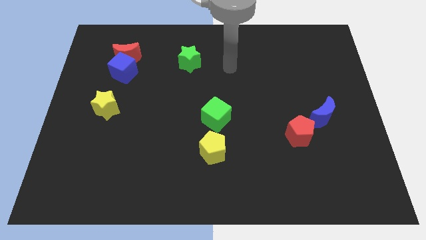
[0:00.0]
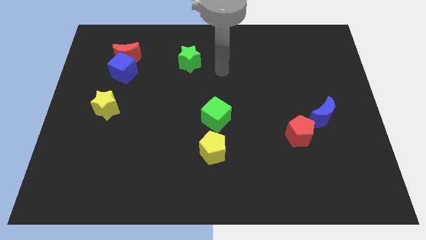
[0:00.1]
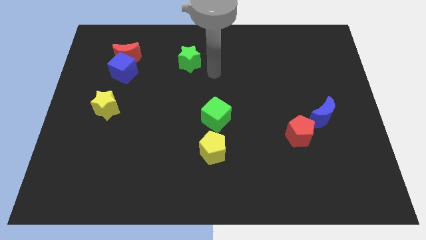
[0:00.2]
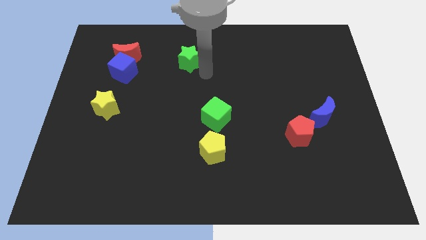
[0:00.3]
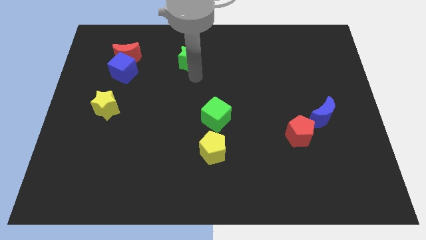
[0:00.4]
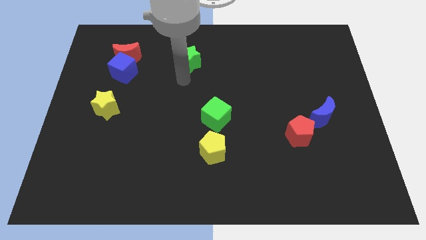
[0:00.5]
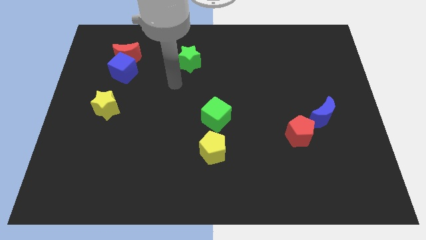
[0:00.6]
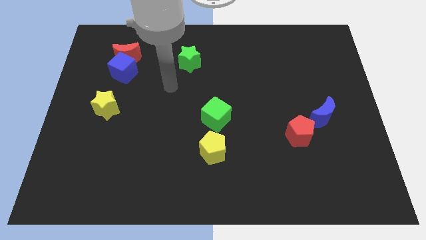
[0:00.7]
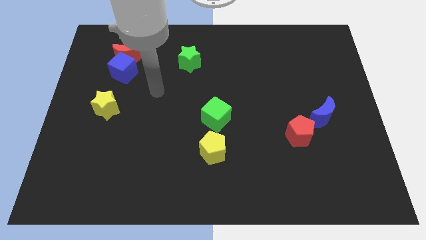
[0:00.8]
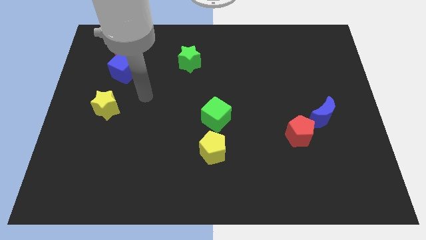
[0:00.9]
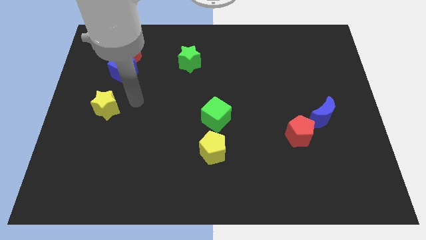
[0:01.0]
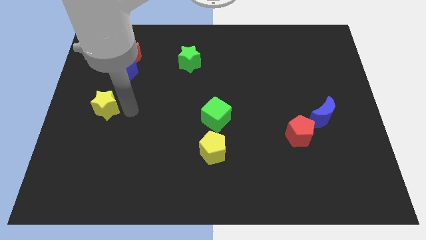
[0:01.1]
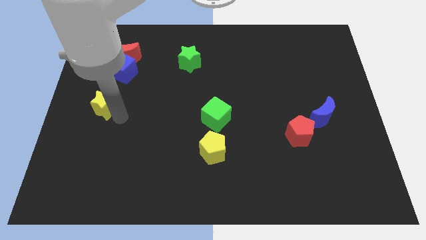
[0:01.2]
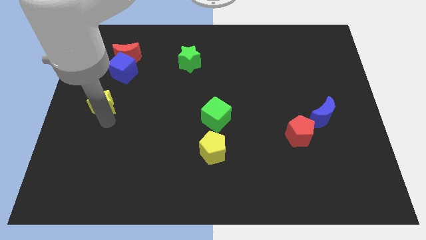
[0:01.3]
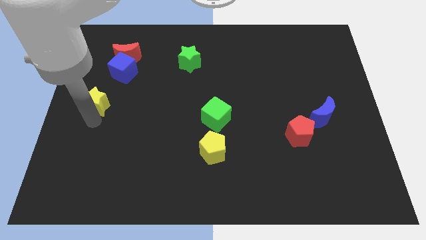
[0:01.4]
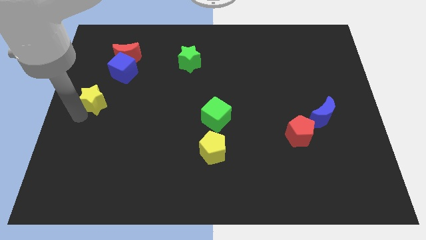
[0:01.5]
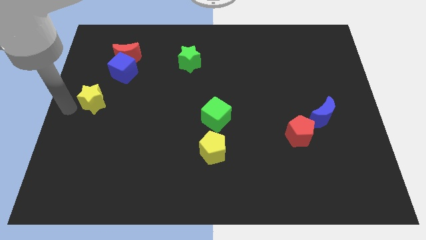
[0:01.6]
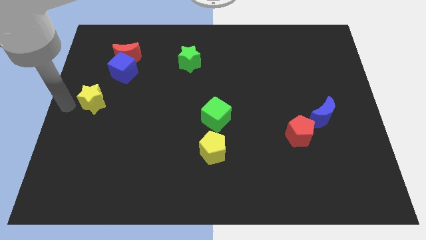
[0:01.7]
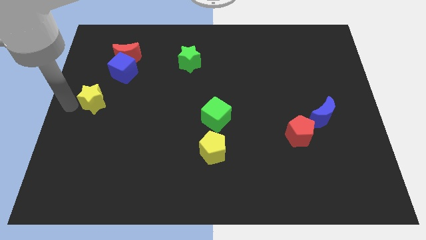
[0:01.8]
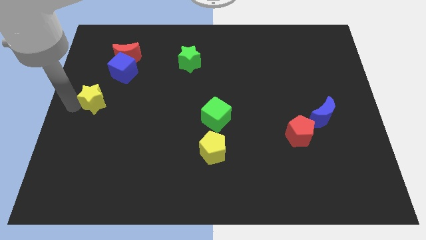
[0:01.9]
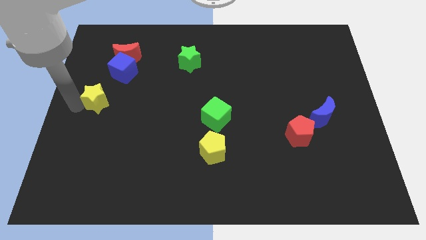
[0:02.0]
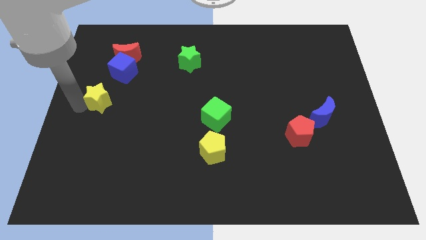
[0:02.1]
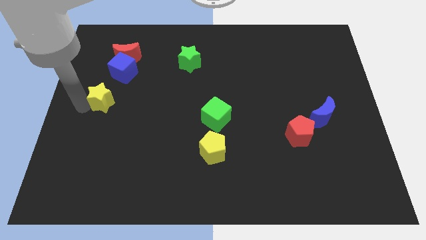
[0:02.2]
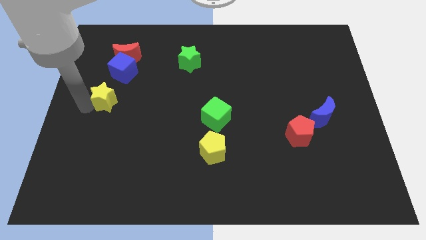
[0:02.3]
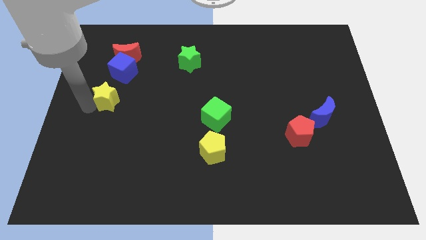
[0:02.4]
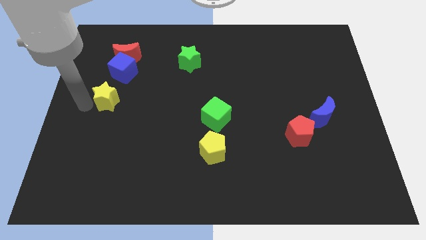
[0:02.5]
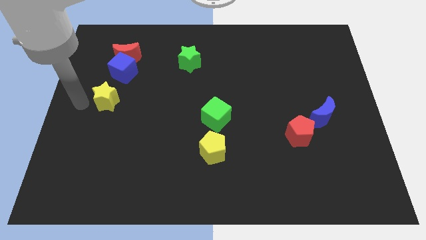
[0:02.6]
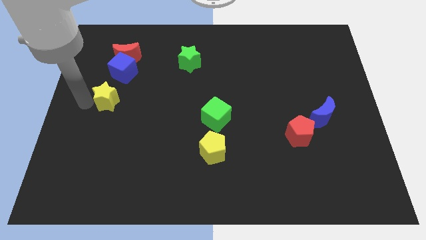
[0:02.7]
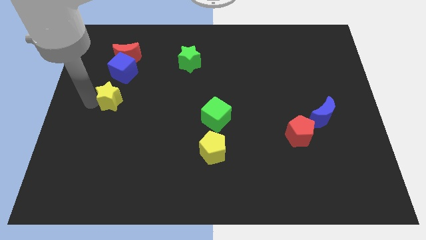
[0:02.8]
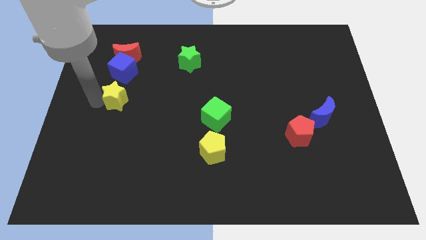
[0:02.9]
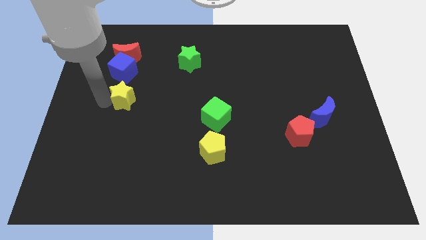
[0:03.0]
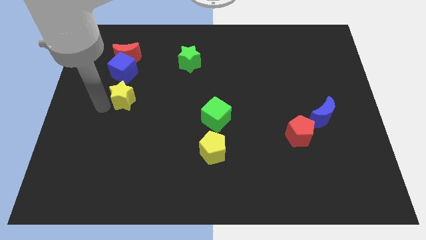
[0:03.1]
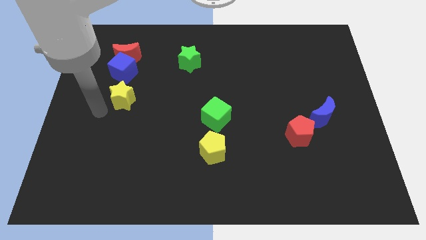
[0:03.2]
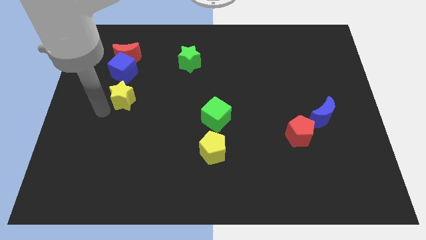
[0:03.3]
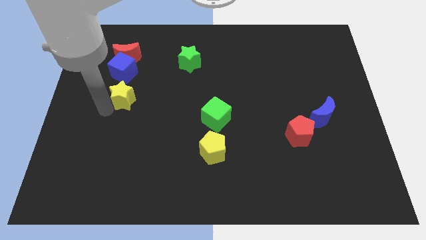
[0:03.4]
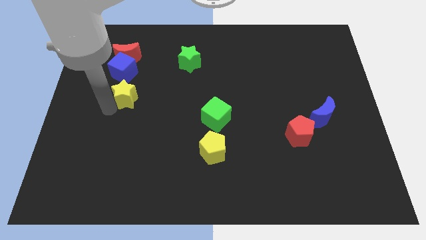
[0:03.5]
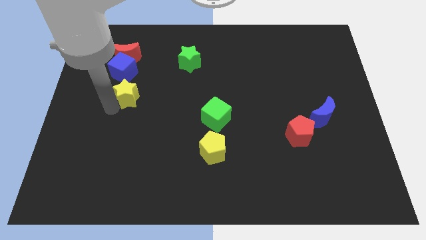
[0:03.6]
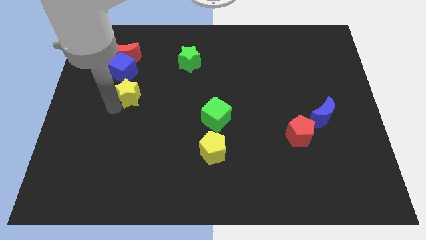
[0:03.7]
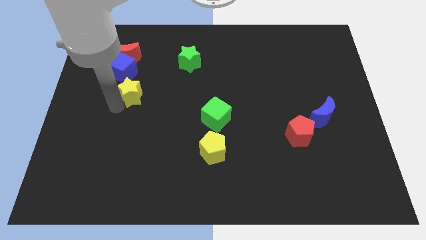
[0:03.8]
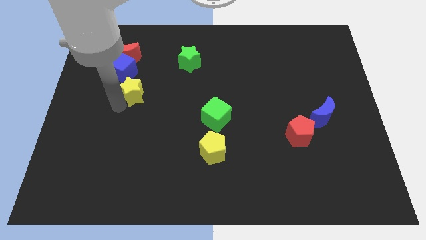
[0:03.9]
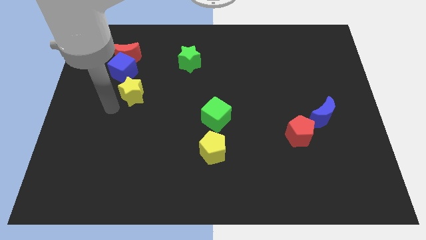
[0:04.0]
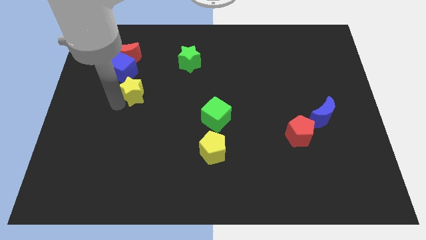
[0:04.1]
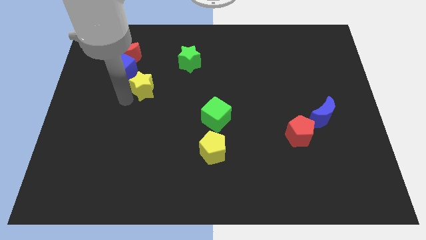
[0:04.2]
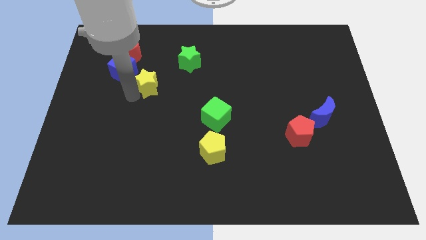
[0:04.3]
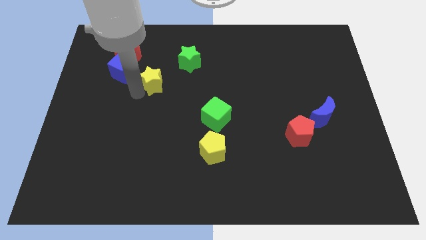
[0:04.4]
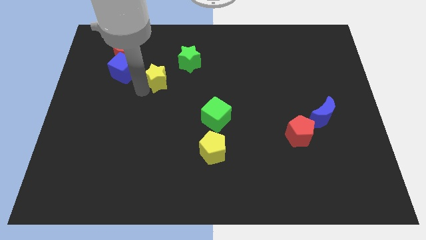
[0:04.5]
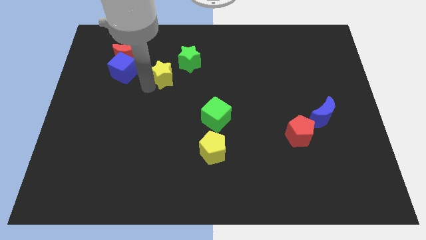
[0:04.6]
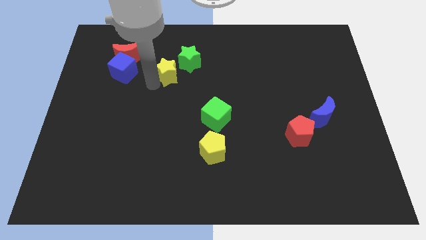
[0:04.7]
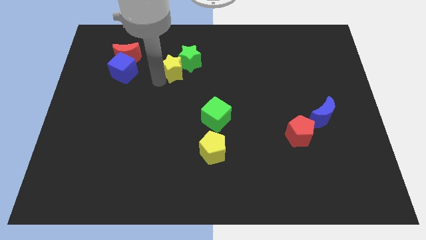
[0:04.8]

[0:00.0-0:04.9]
move the yellow star towards the green star

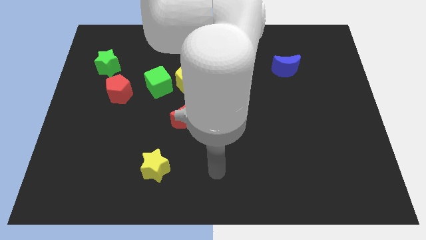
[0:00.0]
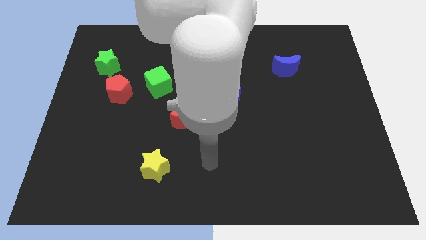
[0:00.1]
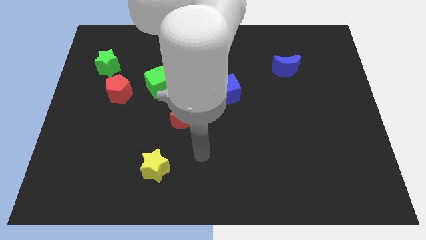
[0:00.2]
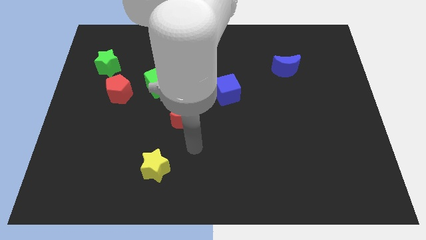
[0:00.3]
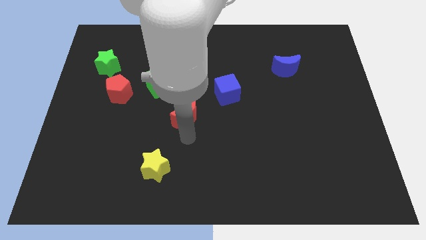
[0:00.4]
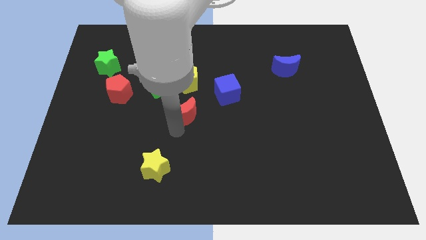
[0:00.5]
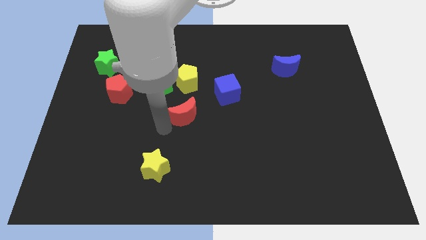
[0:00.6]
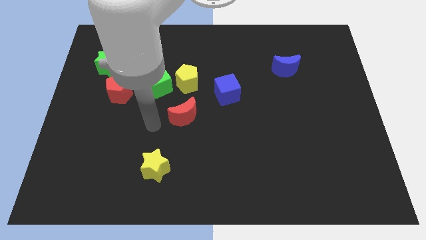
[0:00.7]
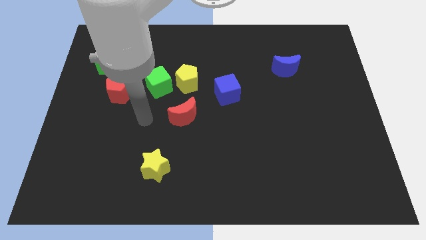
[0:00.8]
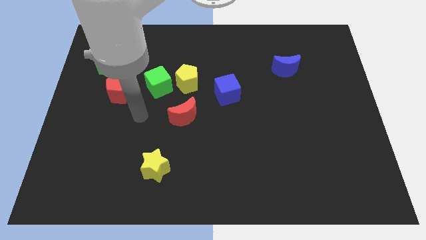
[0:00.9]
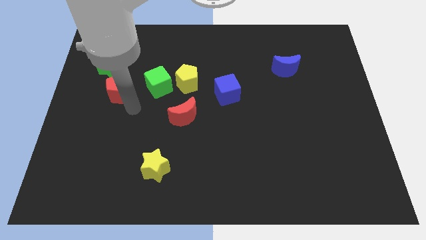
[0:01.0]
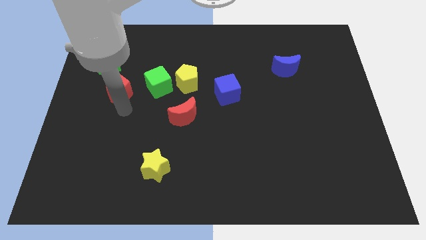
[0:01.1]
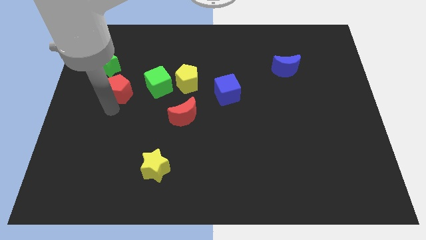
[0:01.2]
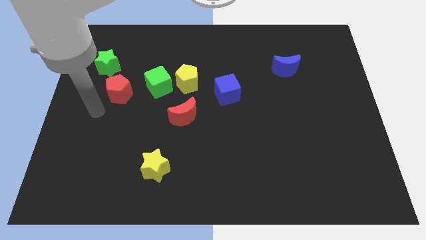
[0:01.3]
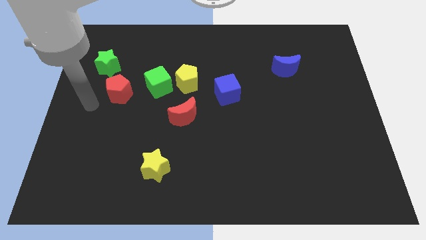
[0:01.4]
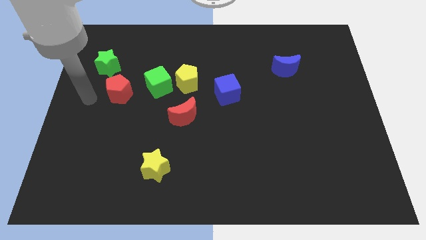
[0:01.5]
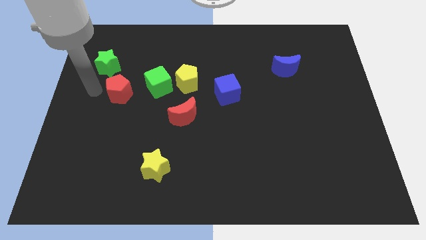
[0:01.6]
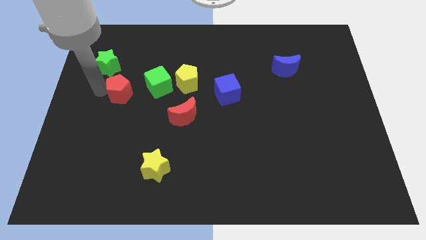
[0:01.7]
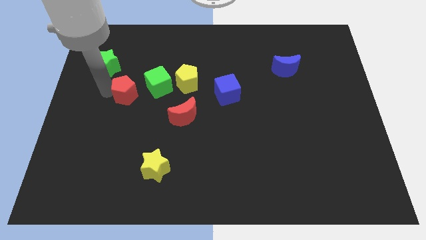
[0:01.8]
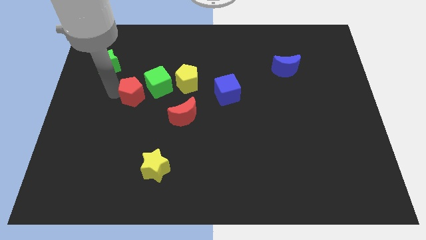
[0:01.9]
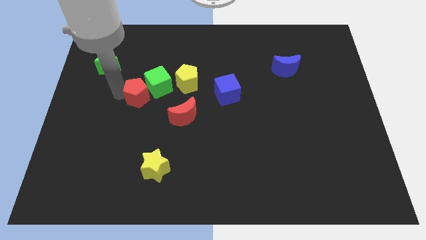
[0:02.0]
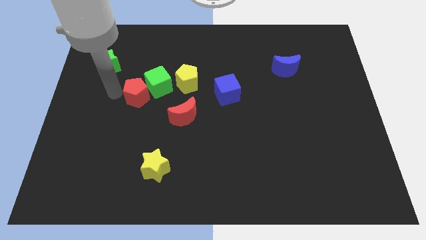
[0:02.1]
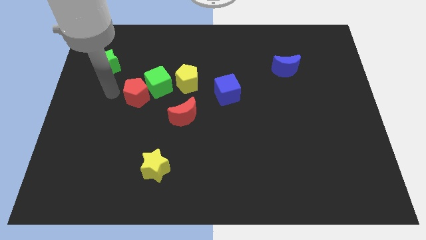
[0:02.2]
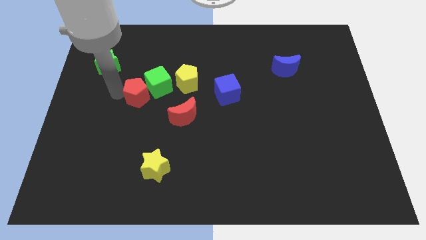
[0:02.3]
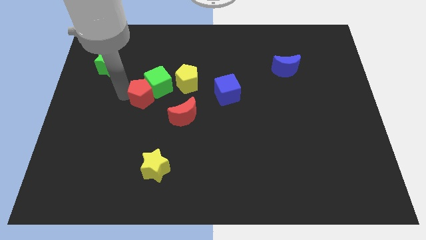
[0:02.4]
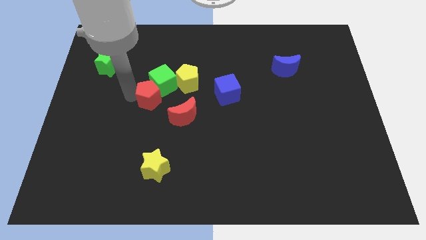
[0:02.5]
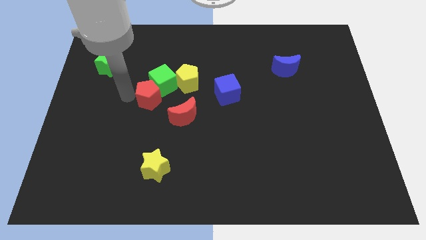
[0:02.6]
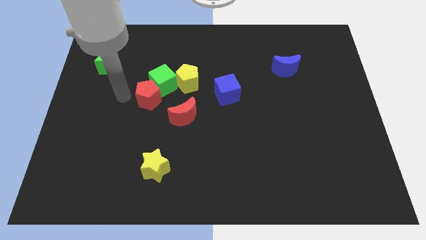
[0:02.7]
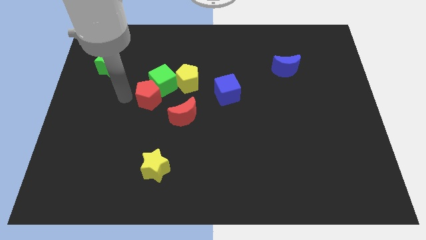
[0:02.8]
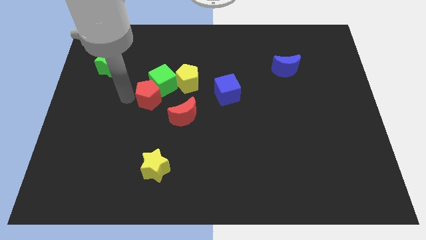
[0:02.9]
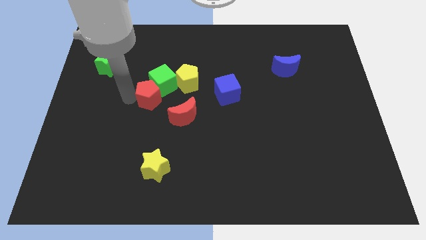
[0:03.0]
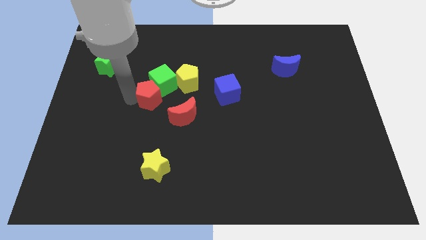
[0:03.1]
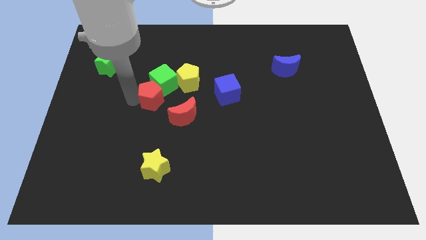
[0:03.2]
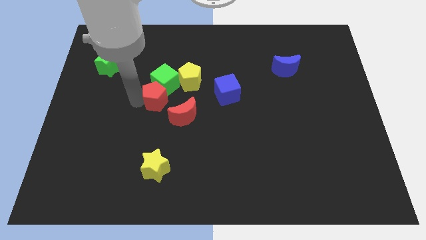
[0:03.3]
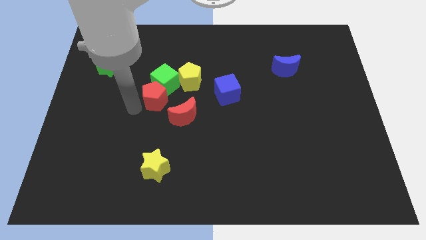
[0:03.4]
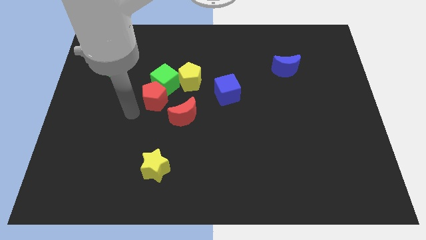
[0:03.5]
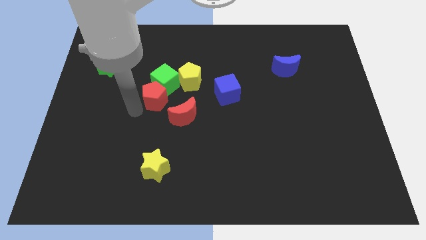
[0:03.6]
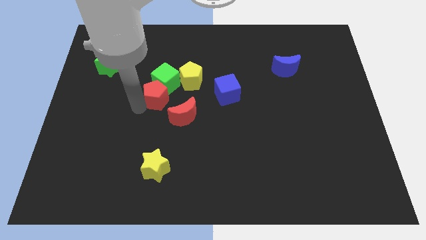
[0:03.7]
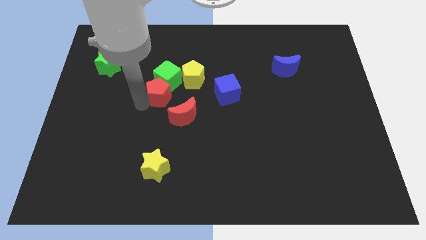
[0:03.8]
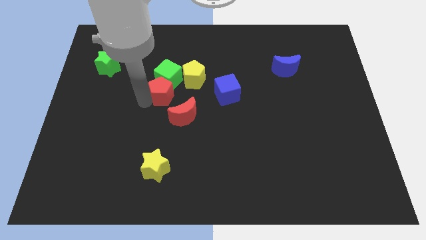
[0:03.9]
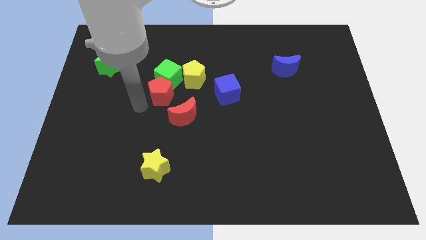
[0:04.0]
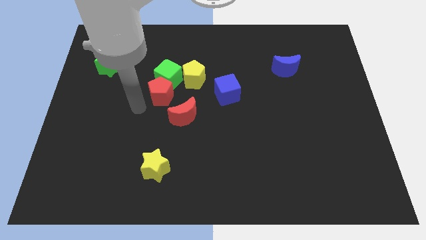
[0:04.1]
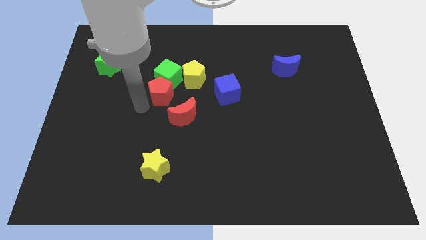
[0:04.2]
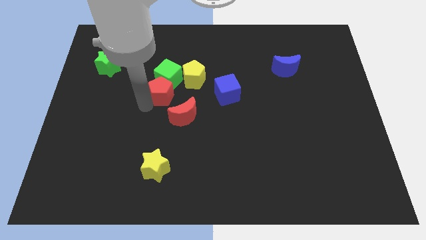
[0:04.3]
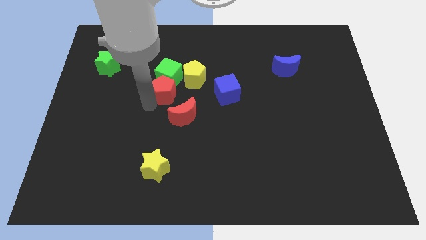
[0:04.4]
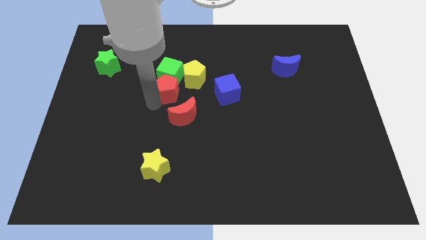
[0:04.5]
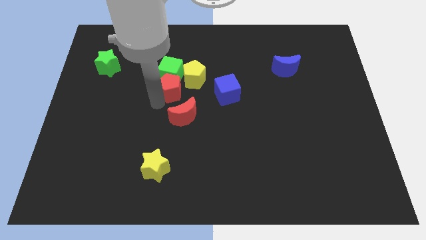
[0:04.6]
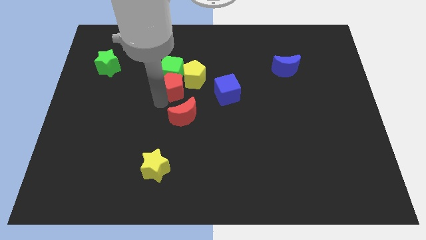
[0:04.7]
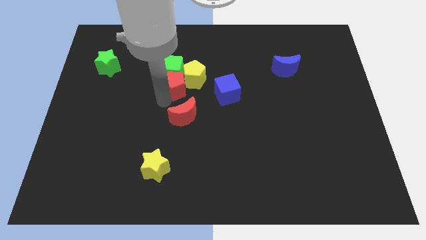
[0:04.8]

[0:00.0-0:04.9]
slide the red pentagon close to the yellow pentagon
